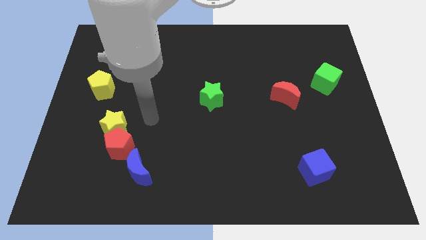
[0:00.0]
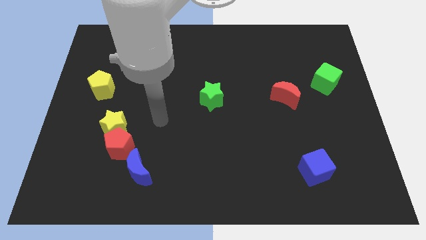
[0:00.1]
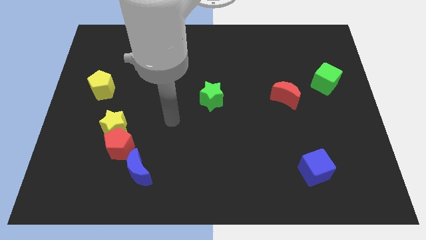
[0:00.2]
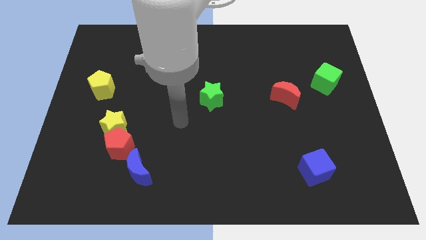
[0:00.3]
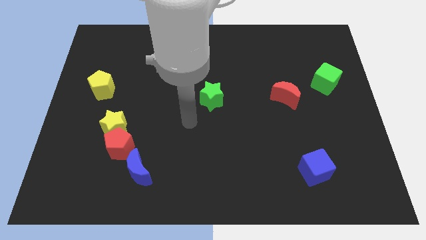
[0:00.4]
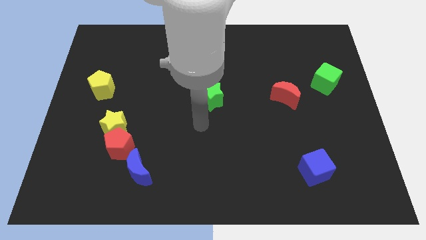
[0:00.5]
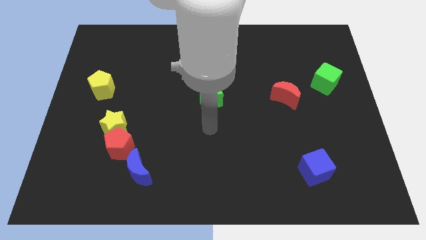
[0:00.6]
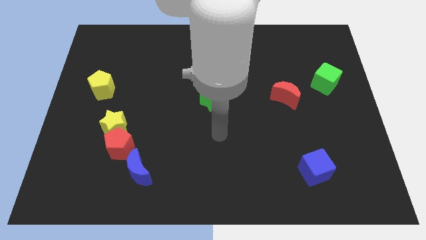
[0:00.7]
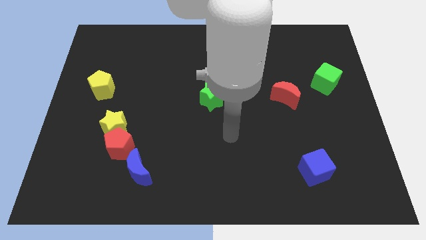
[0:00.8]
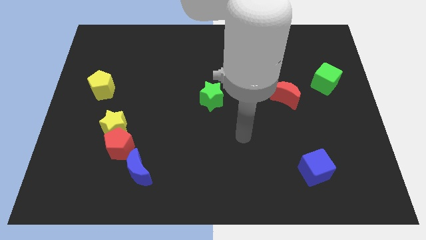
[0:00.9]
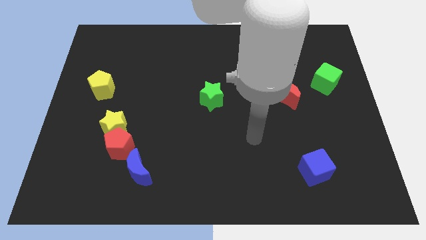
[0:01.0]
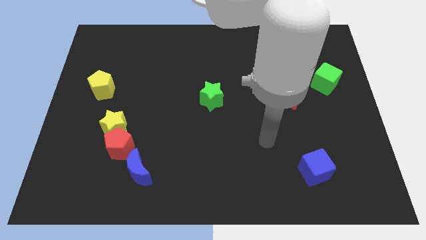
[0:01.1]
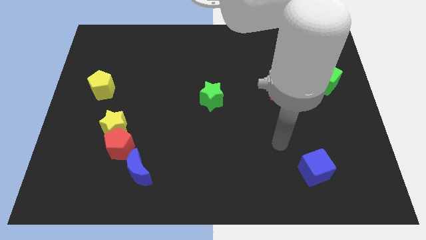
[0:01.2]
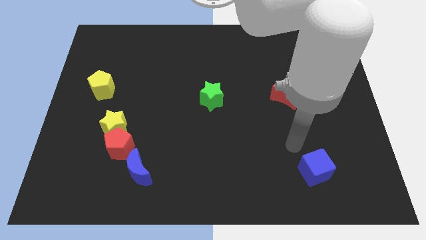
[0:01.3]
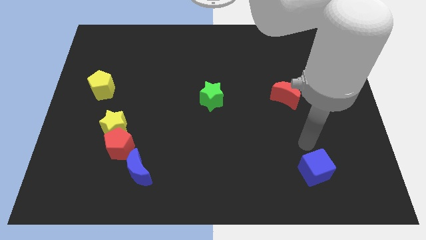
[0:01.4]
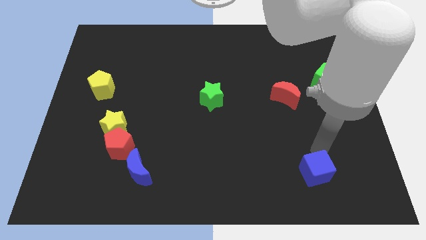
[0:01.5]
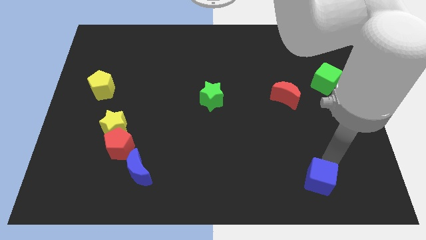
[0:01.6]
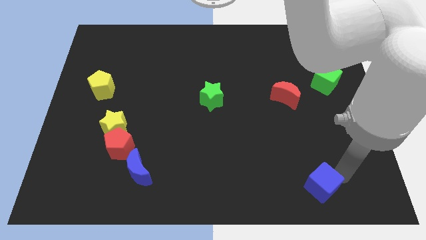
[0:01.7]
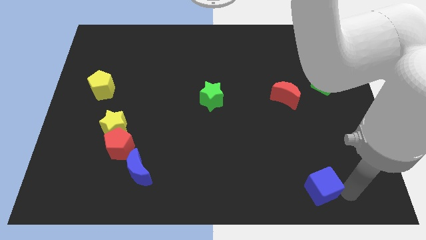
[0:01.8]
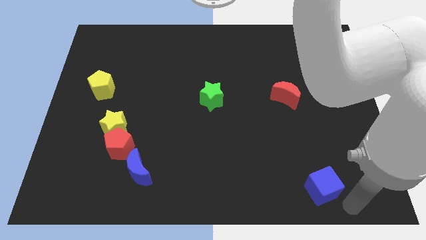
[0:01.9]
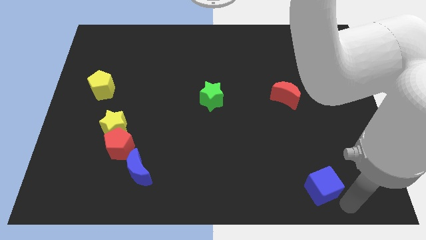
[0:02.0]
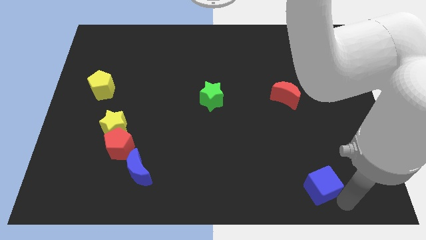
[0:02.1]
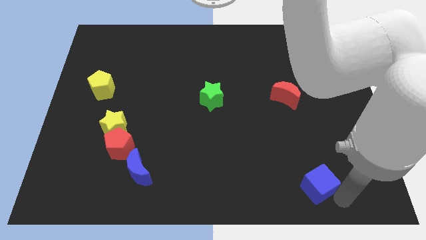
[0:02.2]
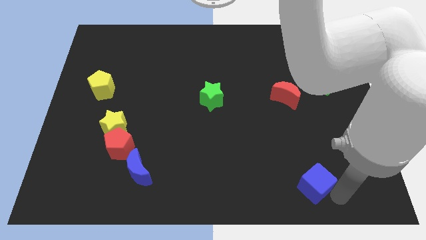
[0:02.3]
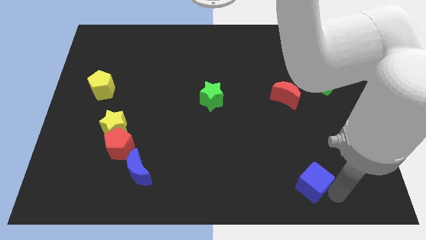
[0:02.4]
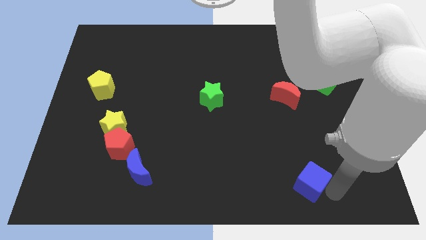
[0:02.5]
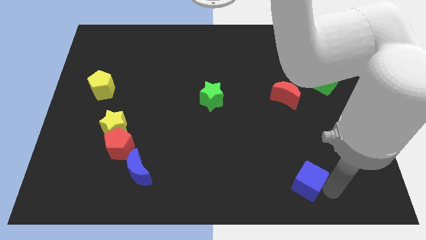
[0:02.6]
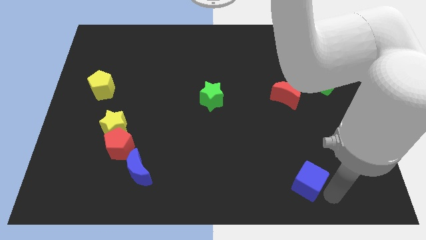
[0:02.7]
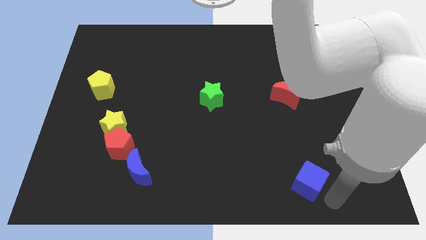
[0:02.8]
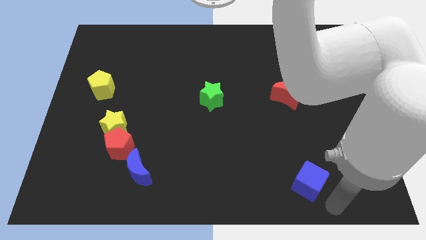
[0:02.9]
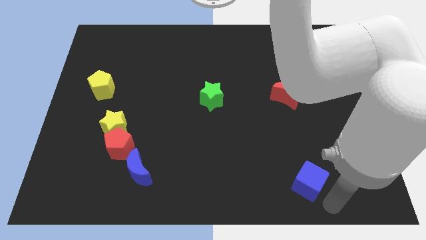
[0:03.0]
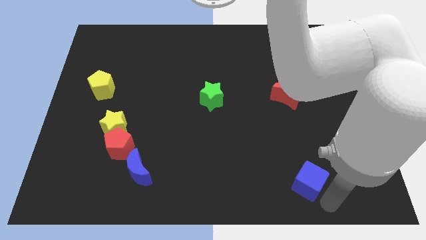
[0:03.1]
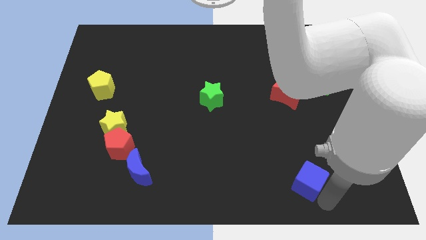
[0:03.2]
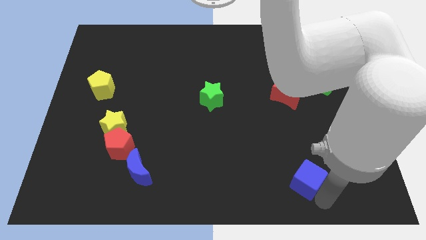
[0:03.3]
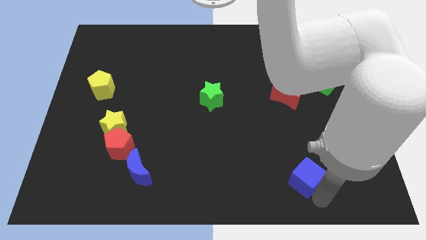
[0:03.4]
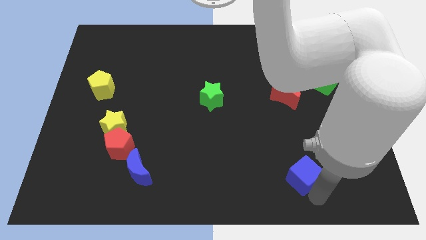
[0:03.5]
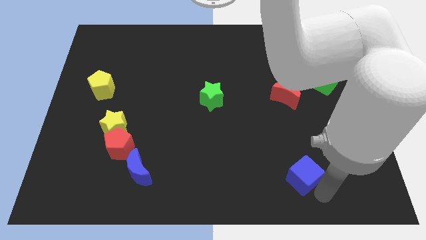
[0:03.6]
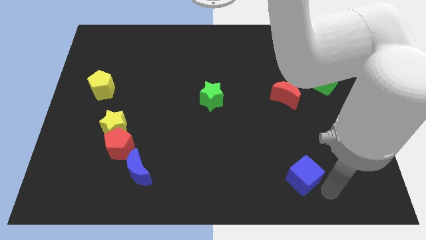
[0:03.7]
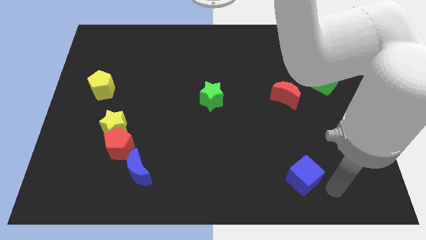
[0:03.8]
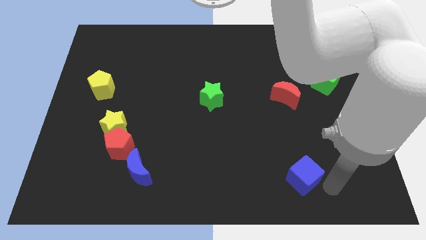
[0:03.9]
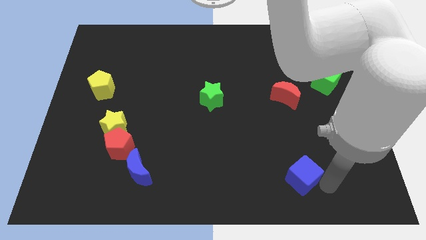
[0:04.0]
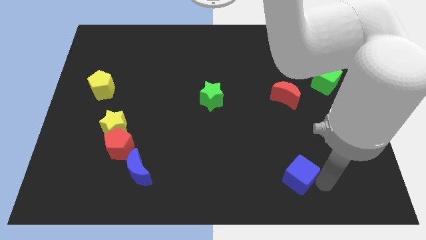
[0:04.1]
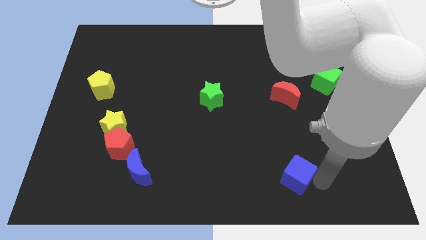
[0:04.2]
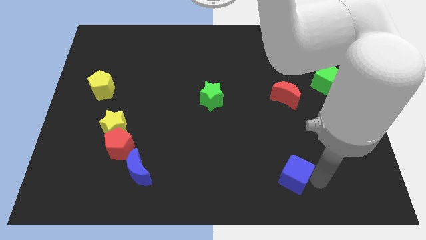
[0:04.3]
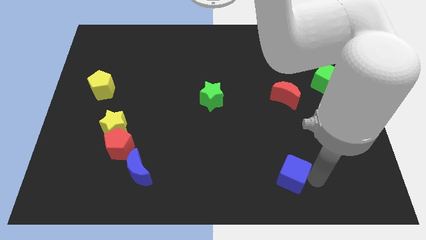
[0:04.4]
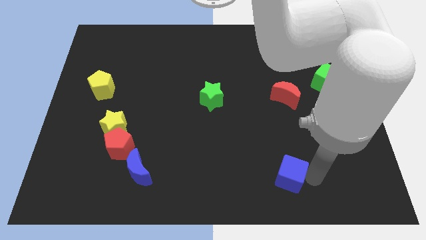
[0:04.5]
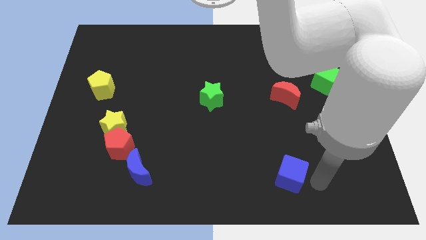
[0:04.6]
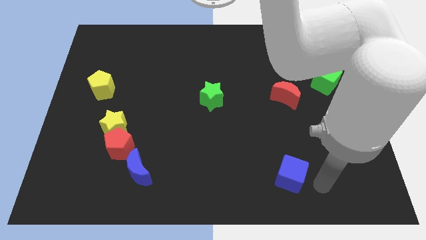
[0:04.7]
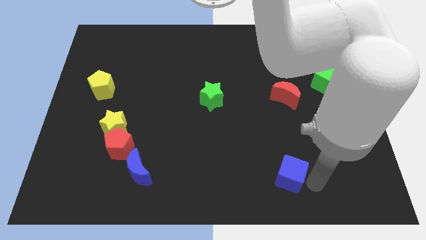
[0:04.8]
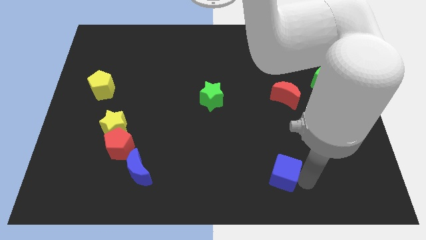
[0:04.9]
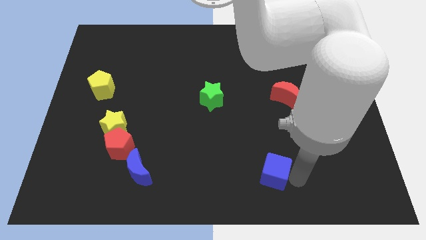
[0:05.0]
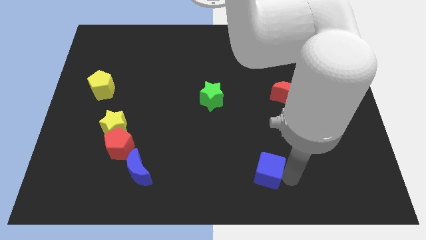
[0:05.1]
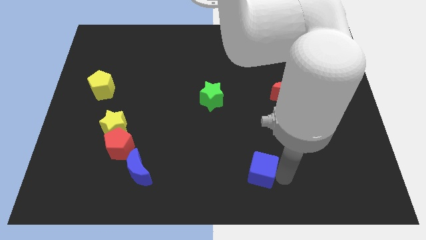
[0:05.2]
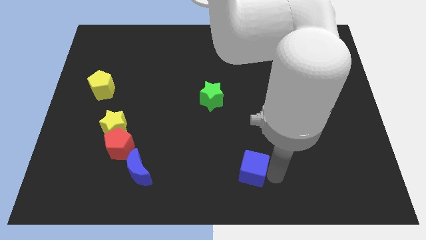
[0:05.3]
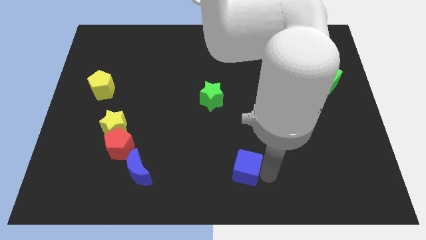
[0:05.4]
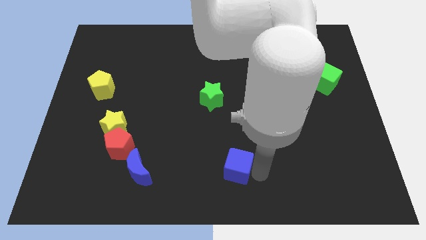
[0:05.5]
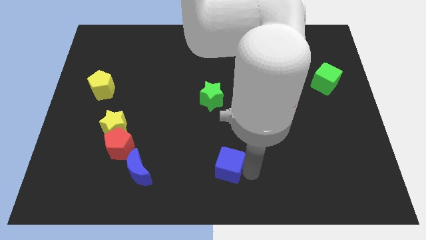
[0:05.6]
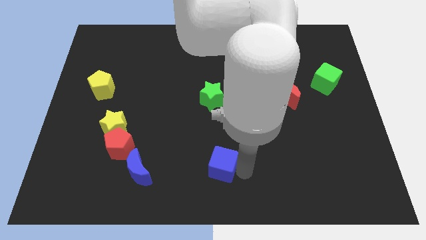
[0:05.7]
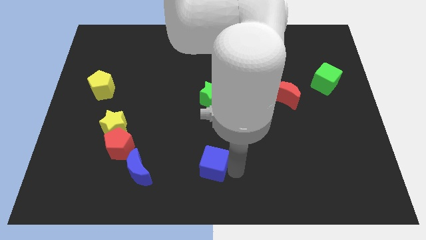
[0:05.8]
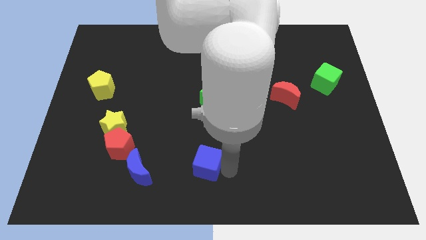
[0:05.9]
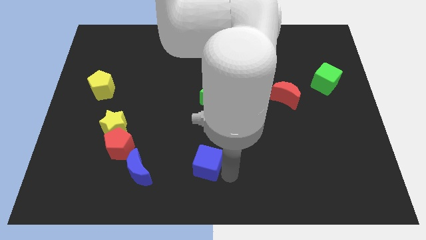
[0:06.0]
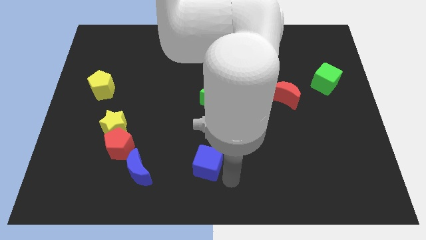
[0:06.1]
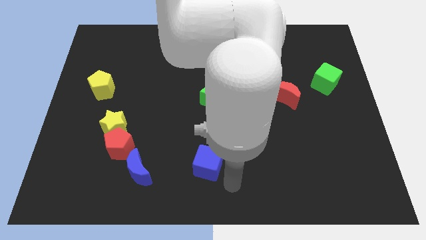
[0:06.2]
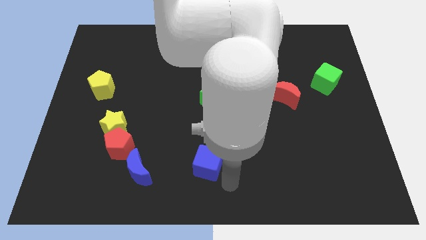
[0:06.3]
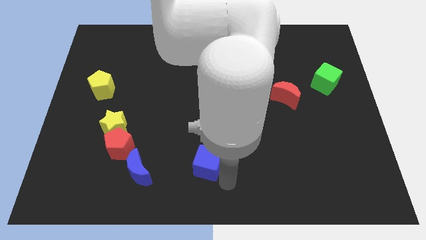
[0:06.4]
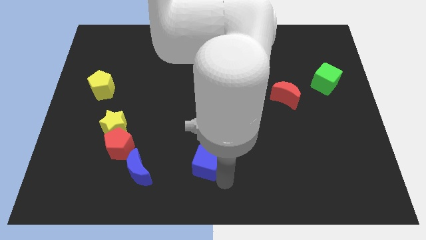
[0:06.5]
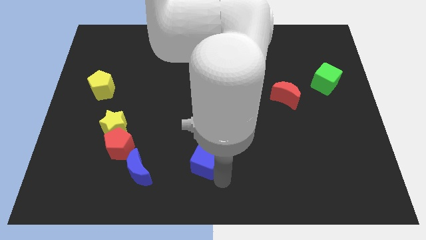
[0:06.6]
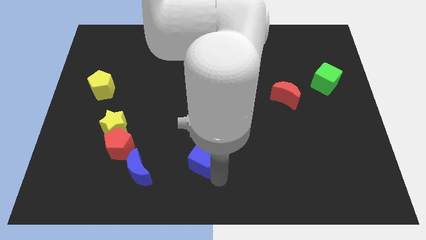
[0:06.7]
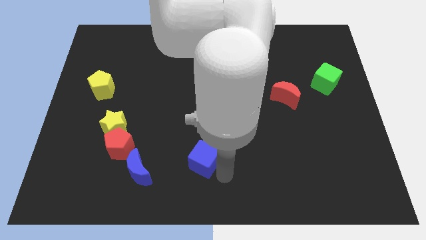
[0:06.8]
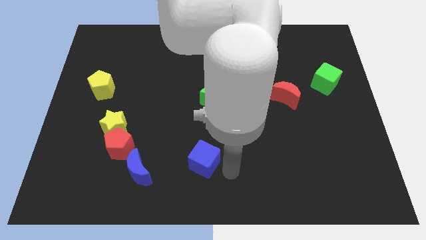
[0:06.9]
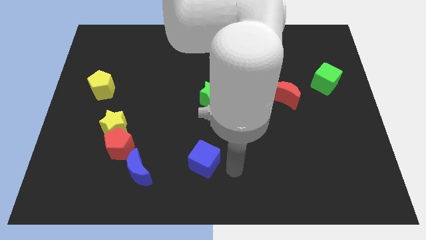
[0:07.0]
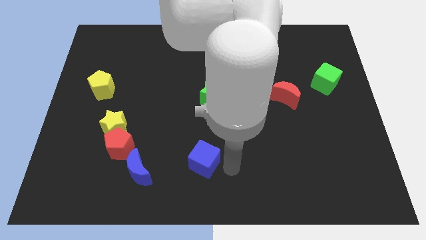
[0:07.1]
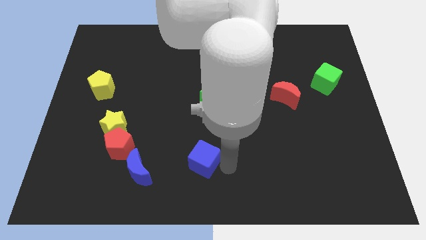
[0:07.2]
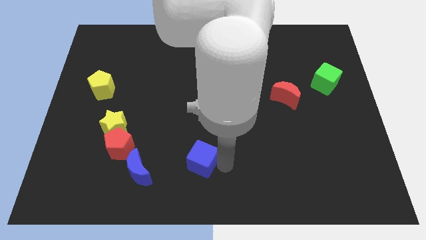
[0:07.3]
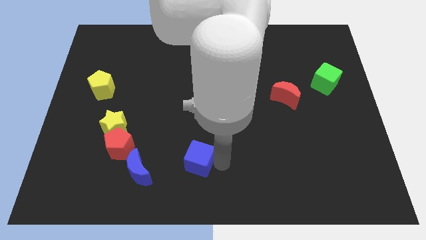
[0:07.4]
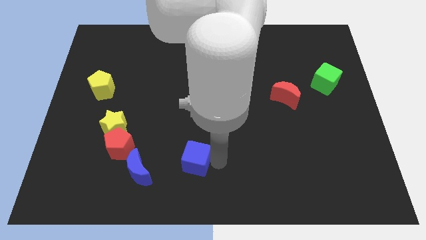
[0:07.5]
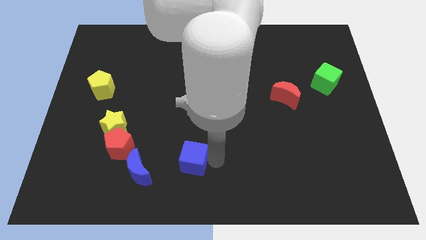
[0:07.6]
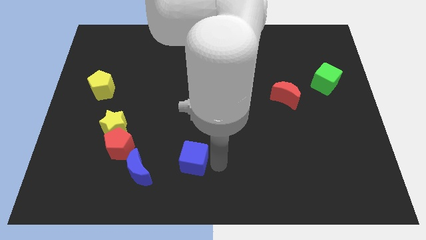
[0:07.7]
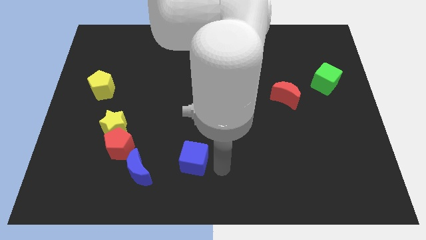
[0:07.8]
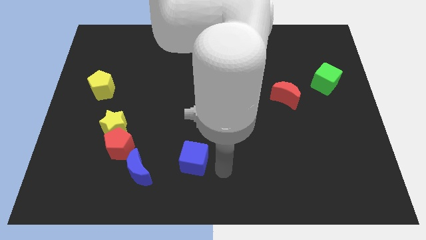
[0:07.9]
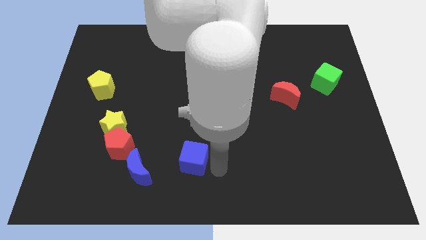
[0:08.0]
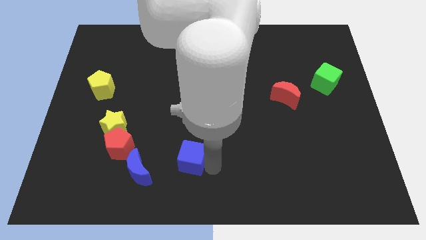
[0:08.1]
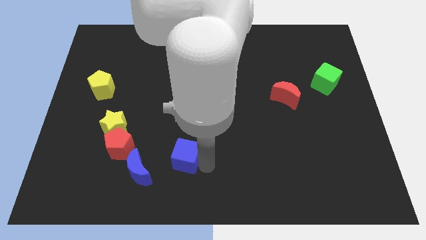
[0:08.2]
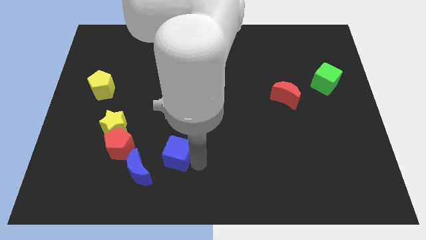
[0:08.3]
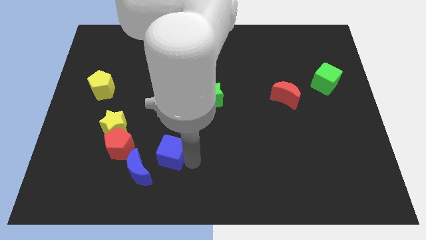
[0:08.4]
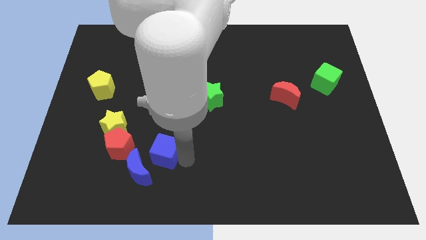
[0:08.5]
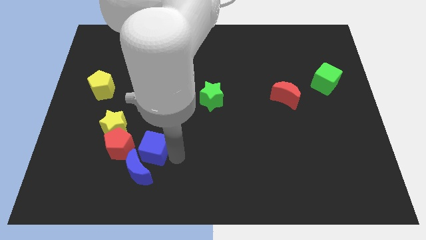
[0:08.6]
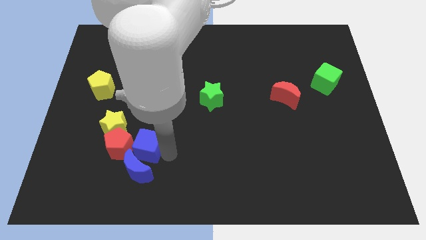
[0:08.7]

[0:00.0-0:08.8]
move the blue cube to the red pentagon
